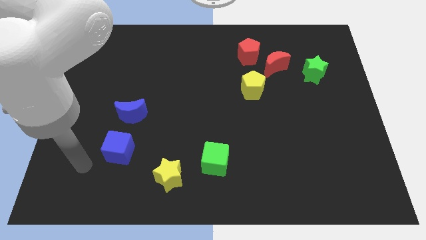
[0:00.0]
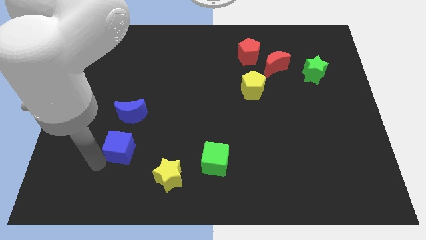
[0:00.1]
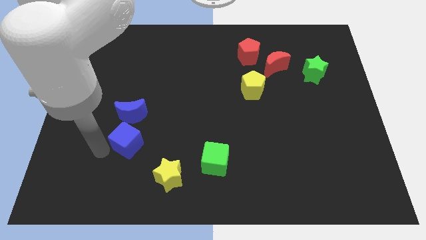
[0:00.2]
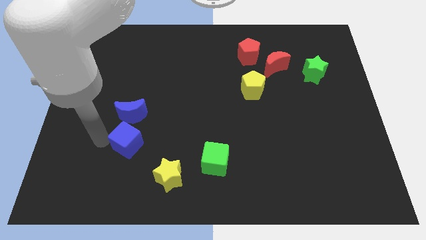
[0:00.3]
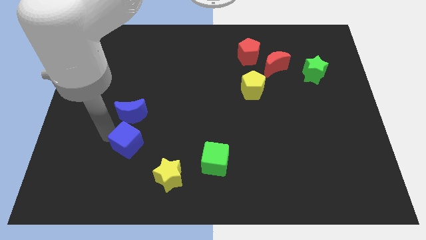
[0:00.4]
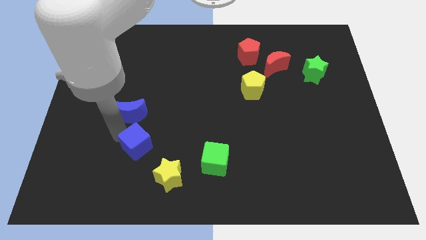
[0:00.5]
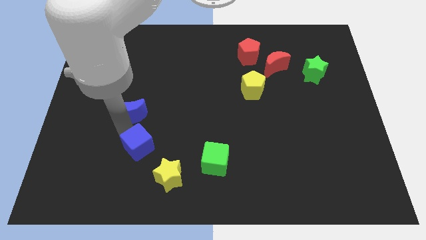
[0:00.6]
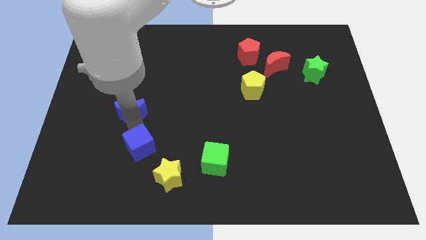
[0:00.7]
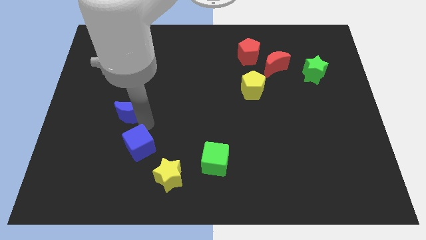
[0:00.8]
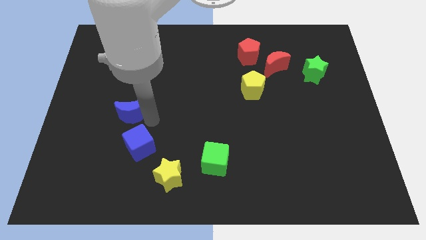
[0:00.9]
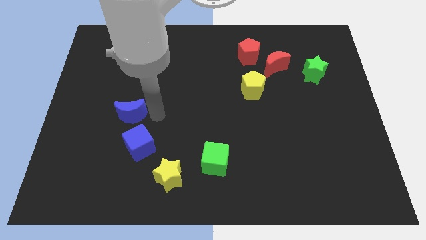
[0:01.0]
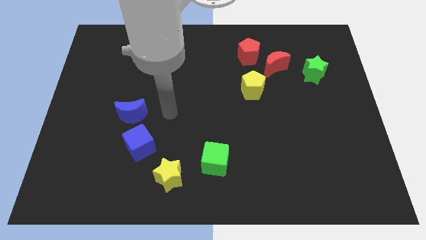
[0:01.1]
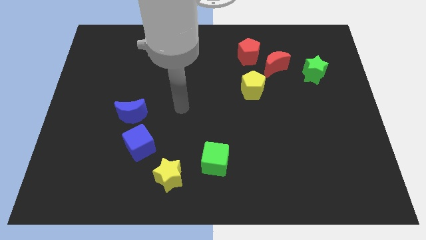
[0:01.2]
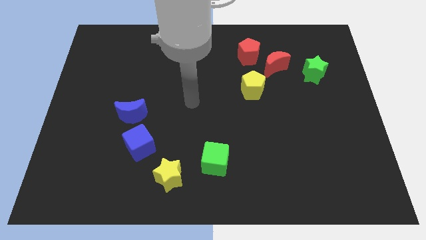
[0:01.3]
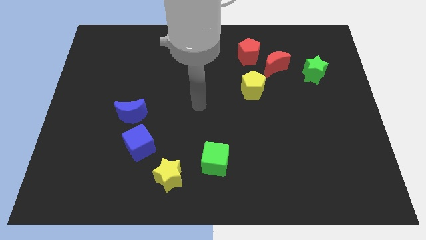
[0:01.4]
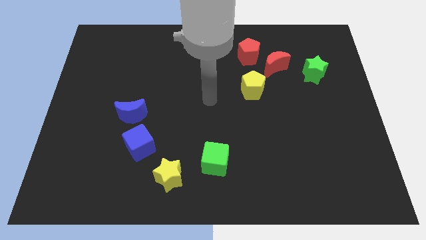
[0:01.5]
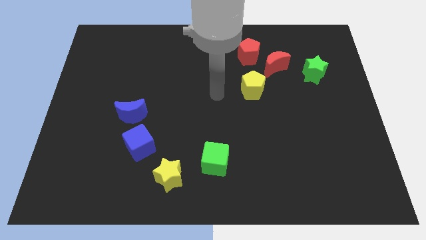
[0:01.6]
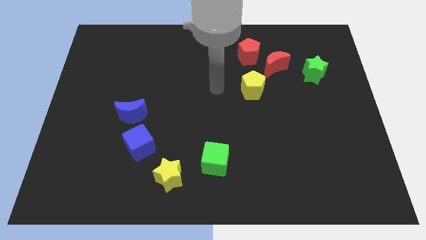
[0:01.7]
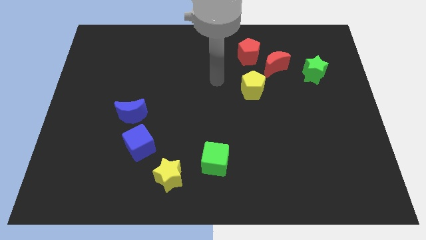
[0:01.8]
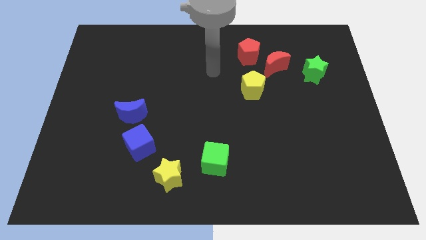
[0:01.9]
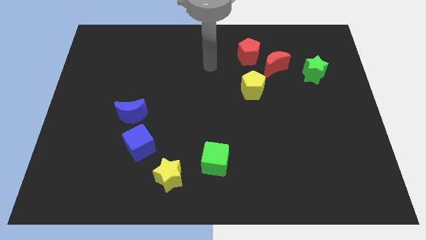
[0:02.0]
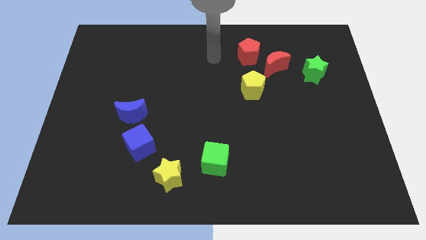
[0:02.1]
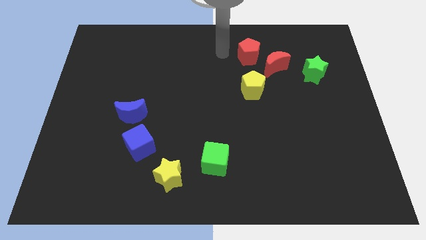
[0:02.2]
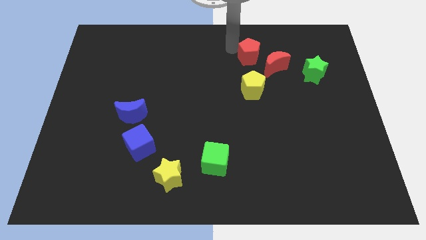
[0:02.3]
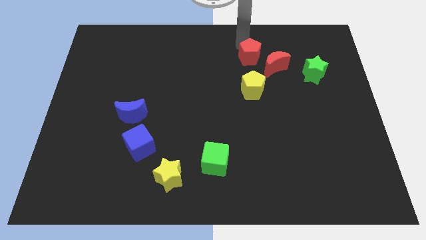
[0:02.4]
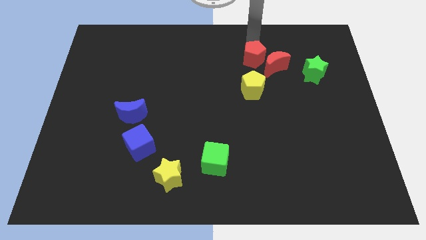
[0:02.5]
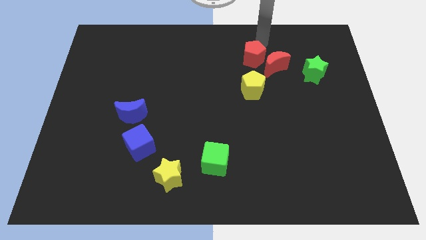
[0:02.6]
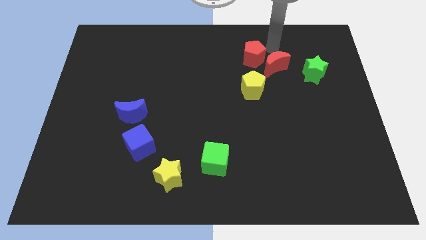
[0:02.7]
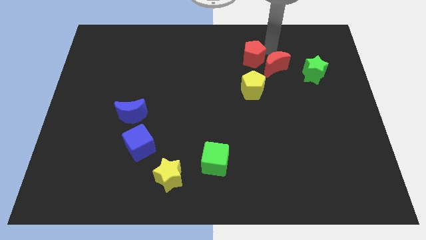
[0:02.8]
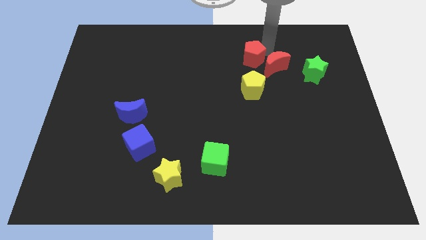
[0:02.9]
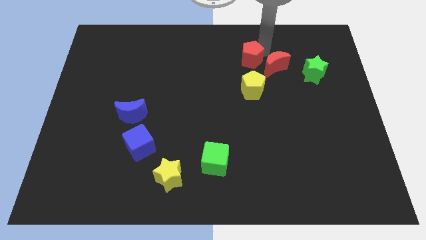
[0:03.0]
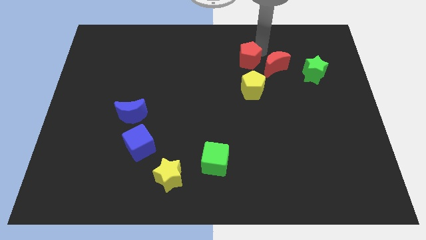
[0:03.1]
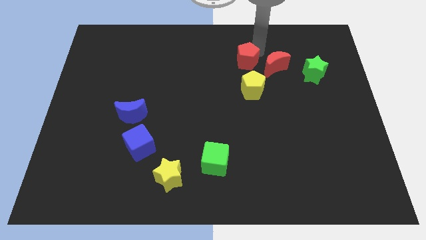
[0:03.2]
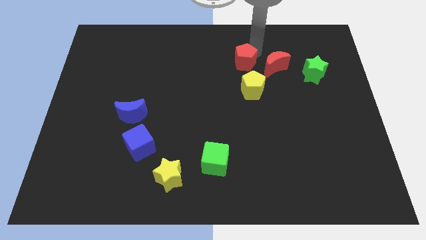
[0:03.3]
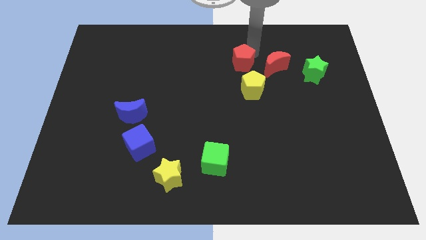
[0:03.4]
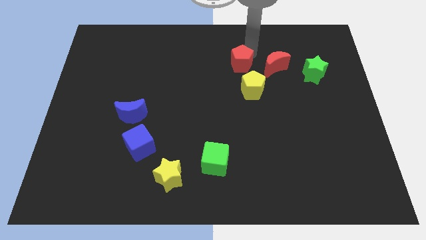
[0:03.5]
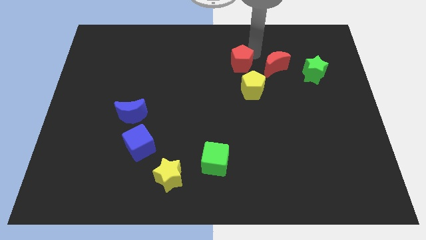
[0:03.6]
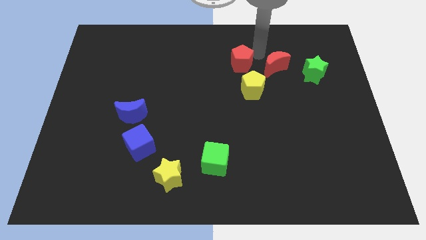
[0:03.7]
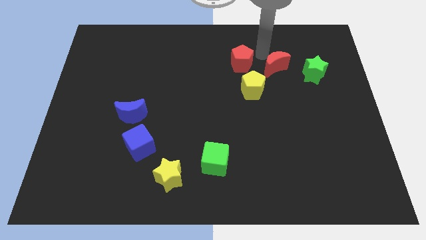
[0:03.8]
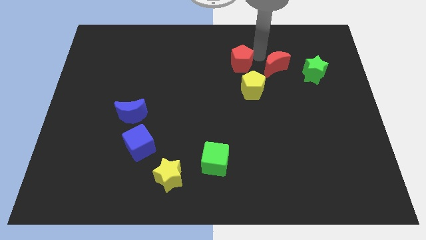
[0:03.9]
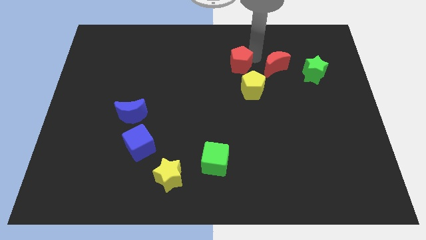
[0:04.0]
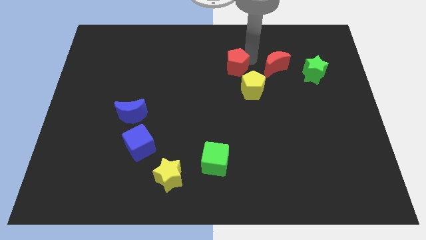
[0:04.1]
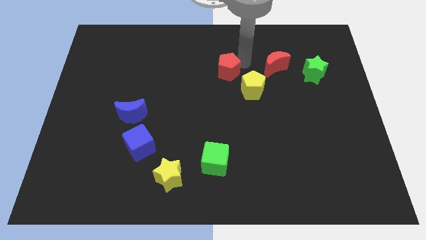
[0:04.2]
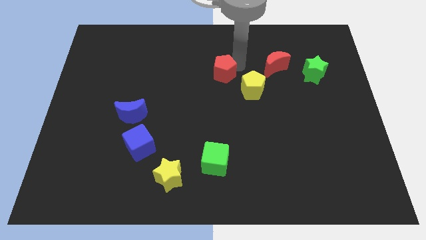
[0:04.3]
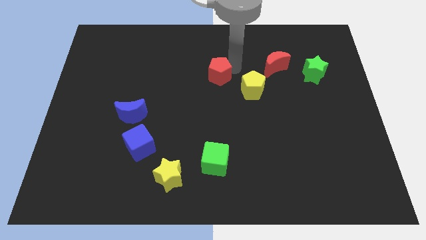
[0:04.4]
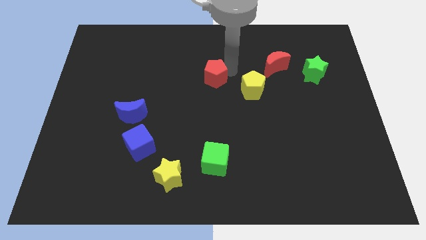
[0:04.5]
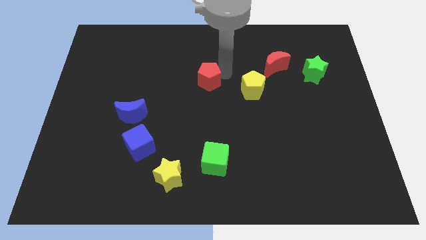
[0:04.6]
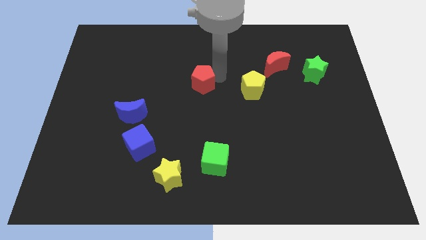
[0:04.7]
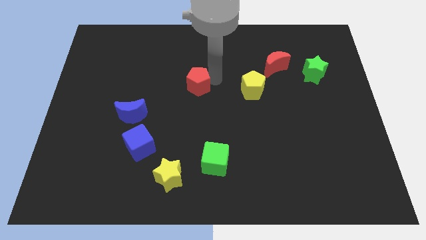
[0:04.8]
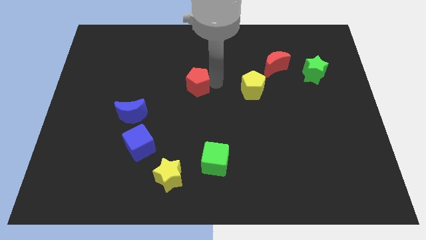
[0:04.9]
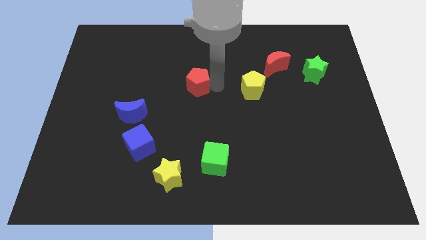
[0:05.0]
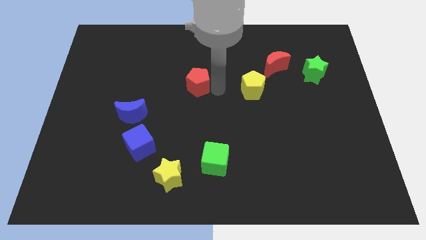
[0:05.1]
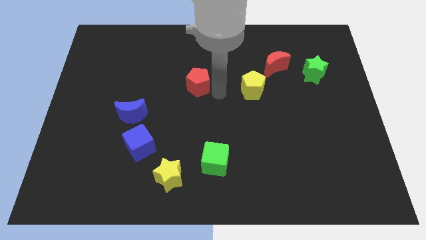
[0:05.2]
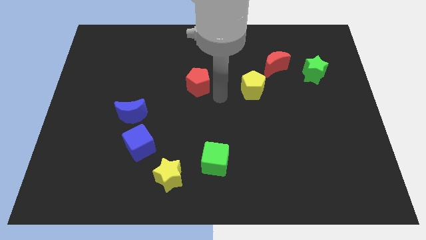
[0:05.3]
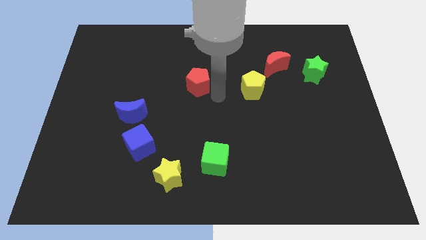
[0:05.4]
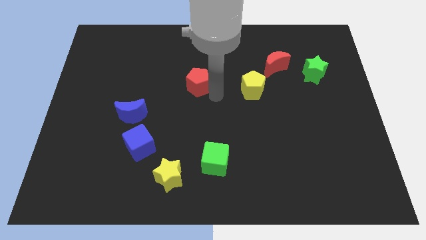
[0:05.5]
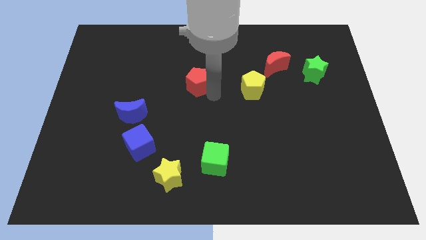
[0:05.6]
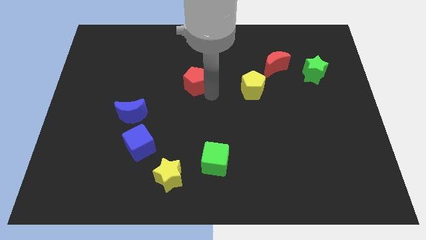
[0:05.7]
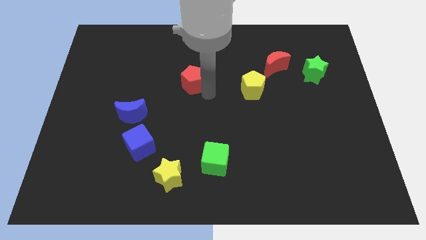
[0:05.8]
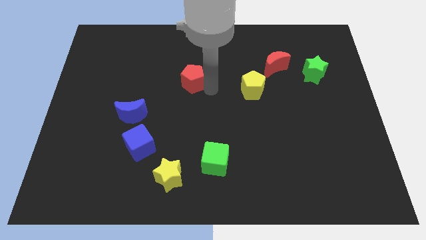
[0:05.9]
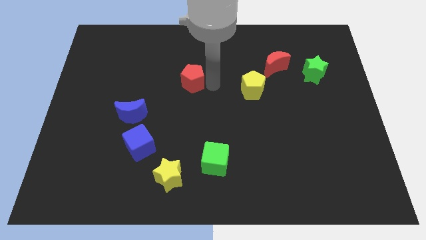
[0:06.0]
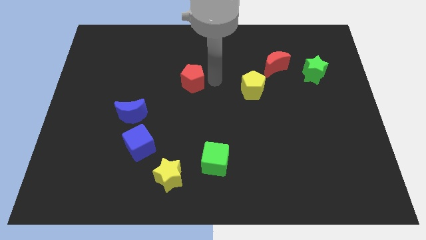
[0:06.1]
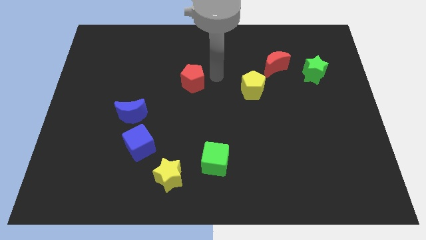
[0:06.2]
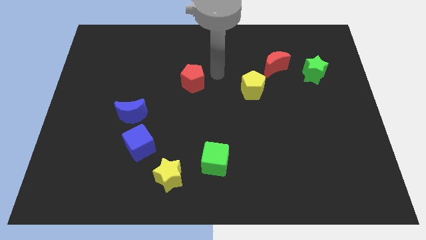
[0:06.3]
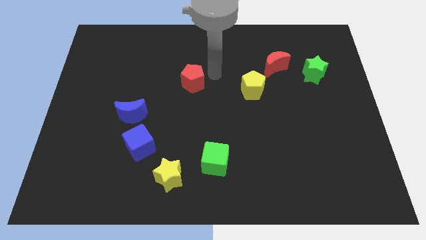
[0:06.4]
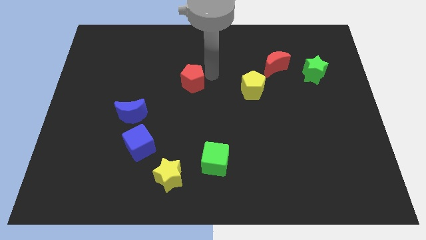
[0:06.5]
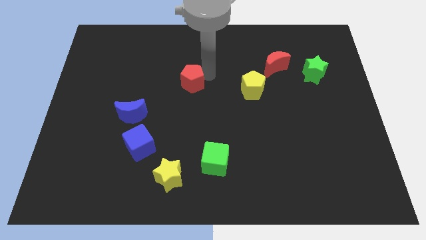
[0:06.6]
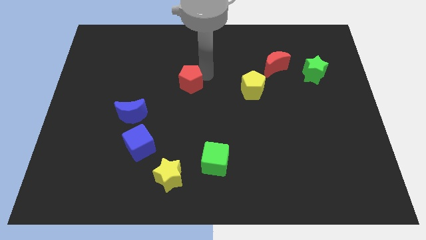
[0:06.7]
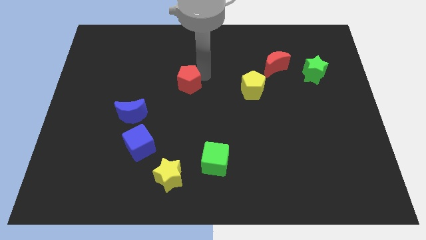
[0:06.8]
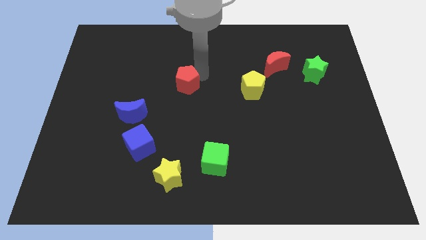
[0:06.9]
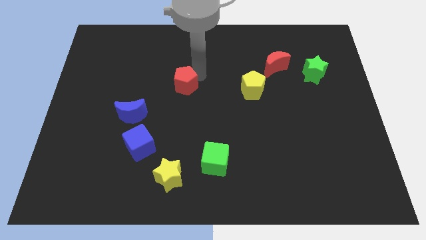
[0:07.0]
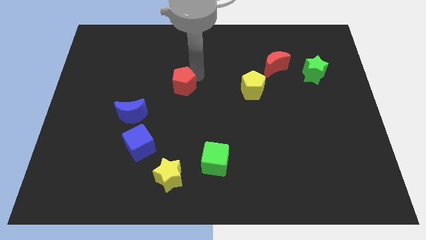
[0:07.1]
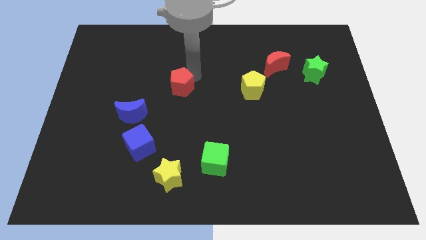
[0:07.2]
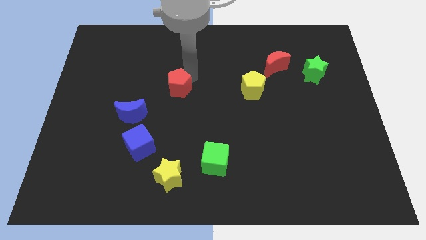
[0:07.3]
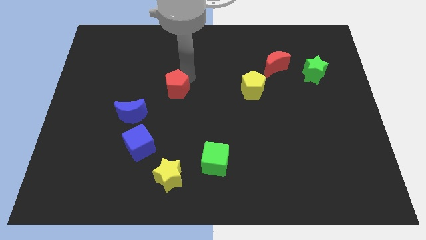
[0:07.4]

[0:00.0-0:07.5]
push the red pentagon to the top right side of the blue moon
